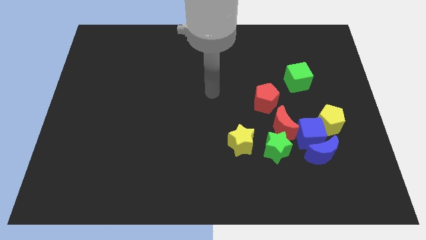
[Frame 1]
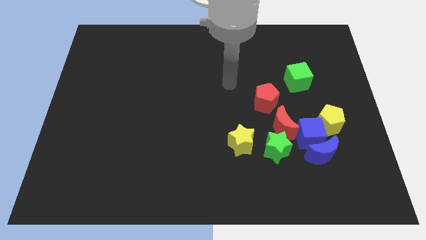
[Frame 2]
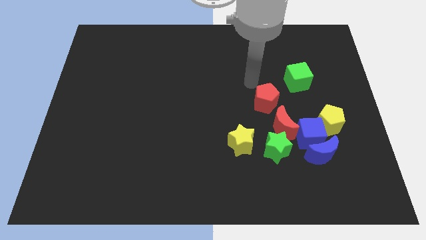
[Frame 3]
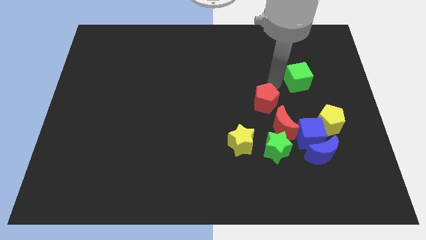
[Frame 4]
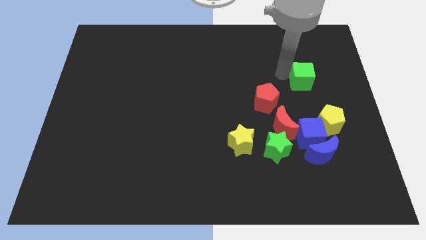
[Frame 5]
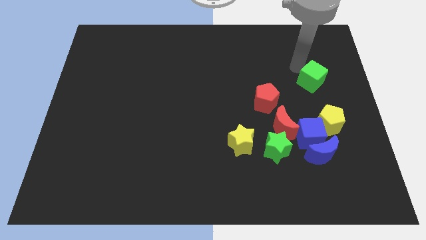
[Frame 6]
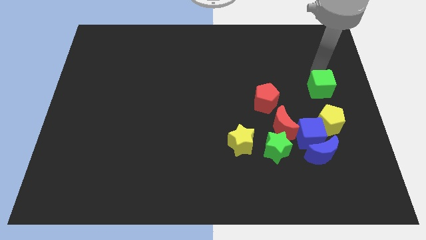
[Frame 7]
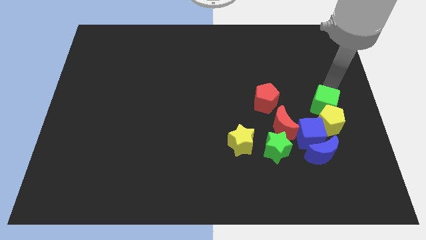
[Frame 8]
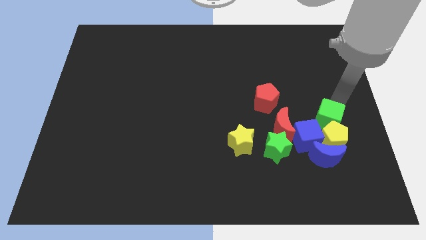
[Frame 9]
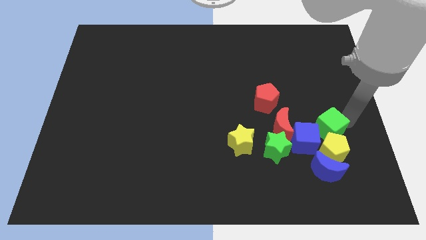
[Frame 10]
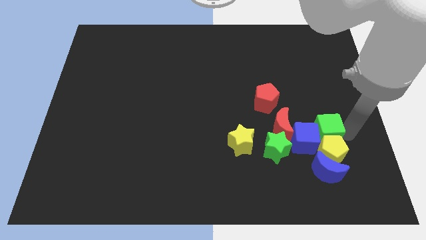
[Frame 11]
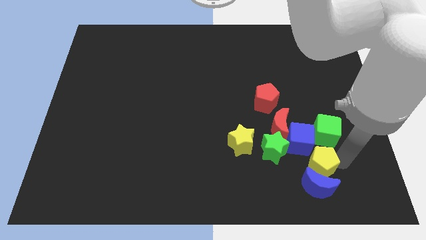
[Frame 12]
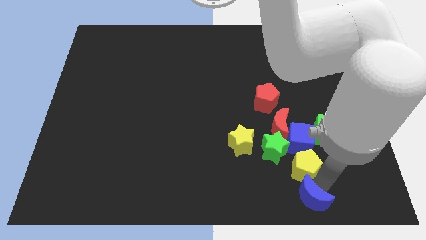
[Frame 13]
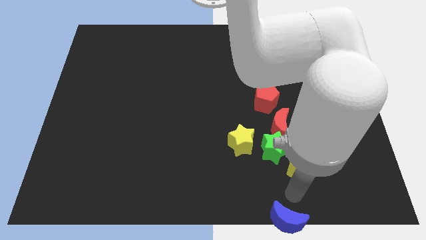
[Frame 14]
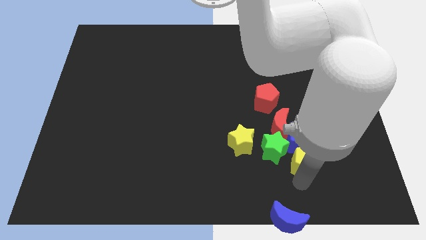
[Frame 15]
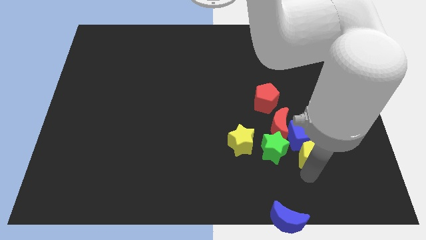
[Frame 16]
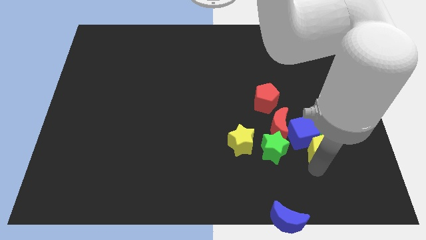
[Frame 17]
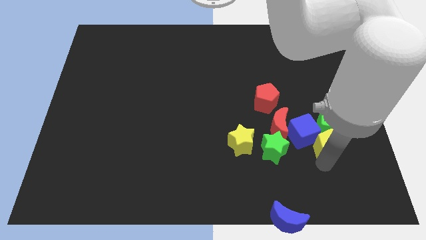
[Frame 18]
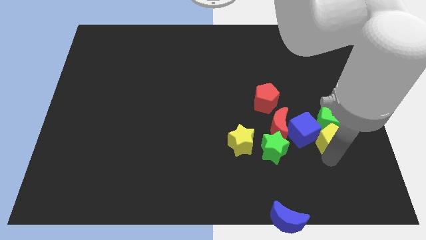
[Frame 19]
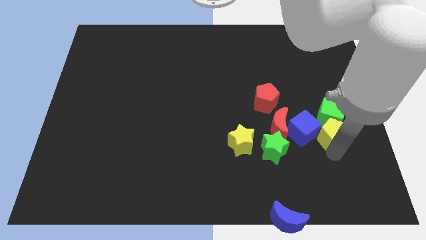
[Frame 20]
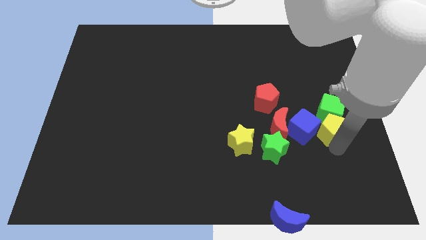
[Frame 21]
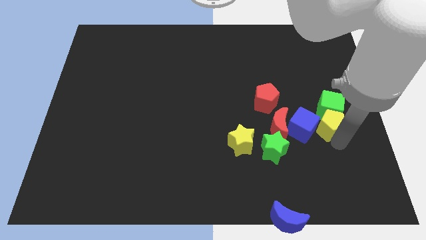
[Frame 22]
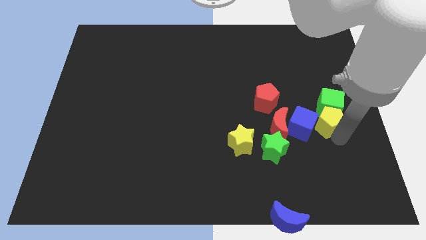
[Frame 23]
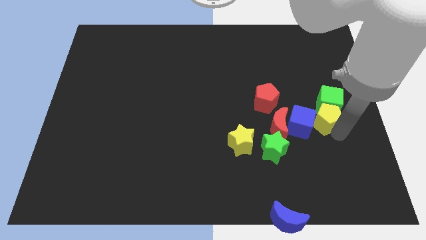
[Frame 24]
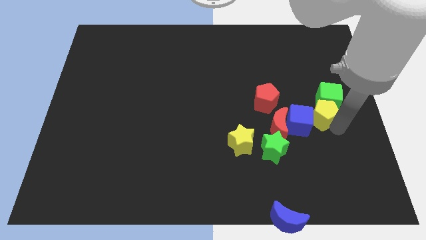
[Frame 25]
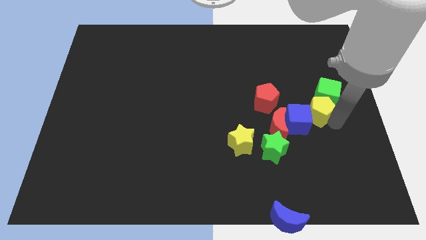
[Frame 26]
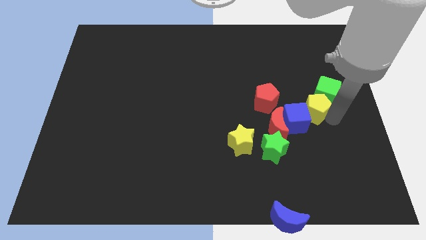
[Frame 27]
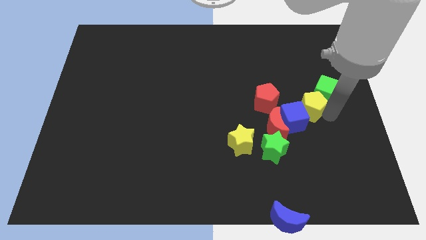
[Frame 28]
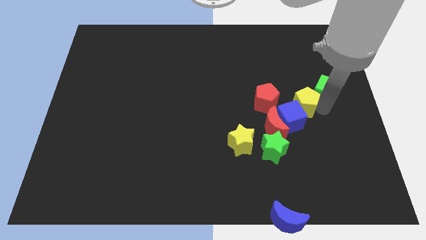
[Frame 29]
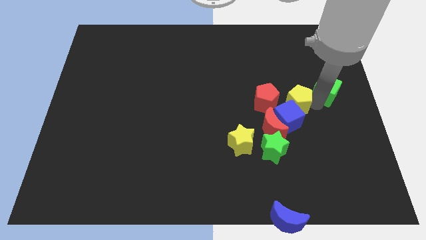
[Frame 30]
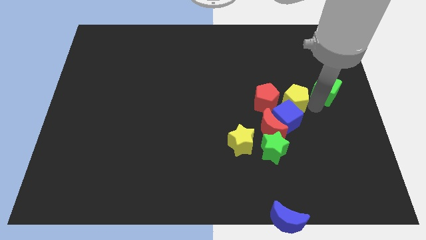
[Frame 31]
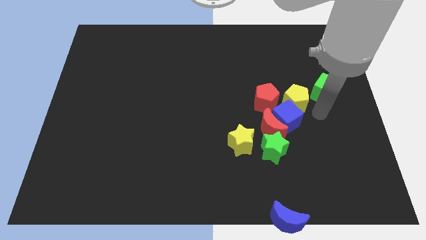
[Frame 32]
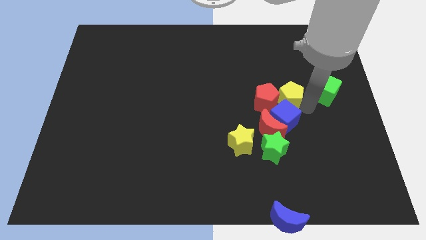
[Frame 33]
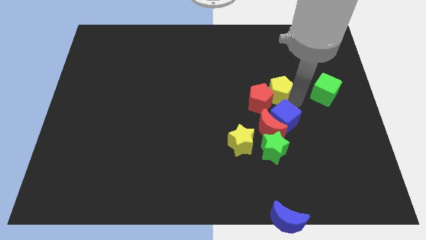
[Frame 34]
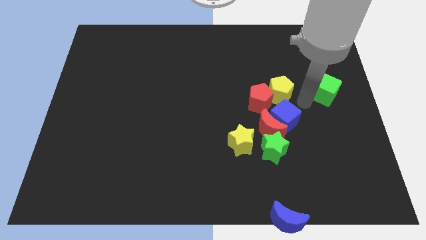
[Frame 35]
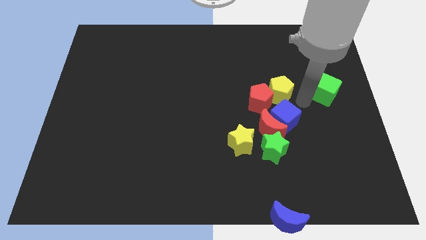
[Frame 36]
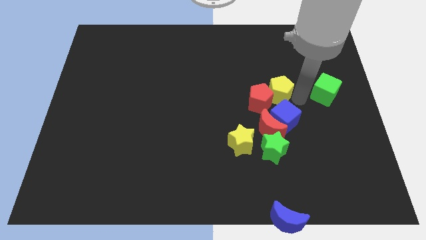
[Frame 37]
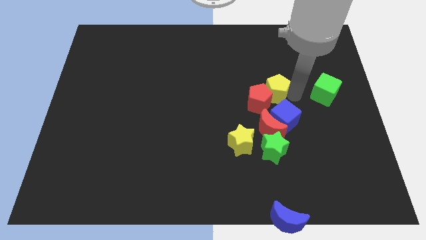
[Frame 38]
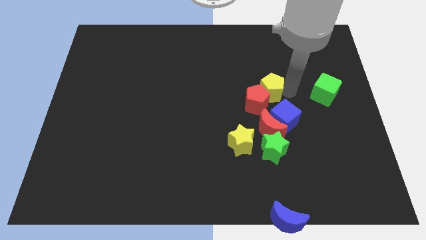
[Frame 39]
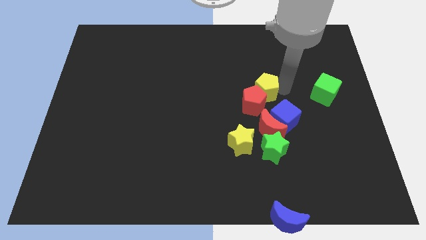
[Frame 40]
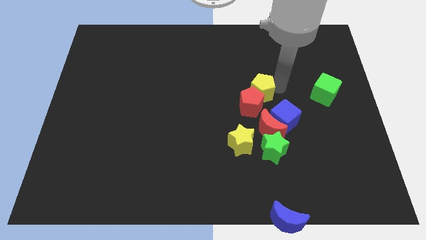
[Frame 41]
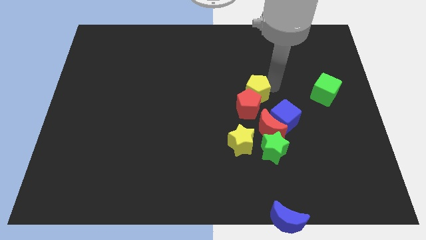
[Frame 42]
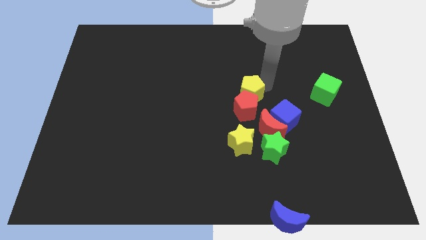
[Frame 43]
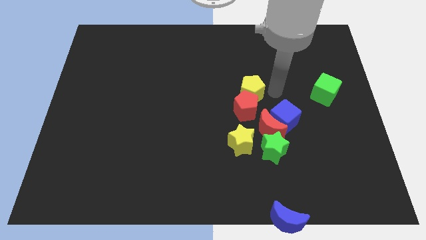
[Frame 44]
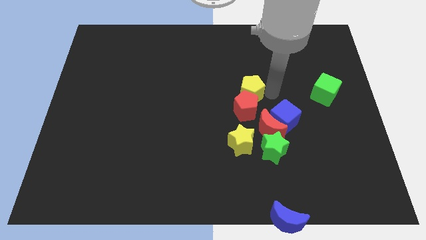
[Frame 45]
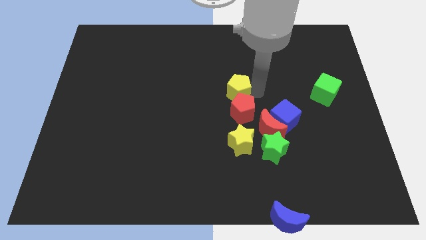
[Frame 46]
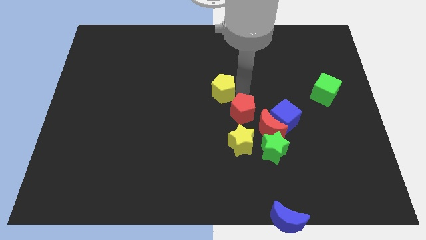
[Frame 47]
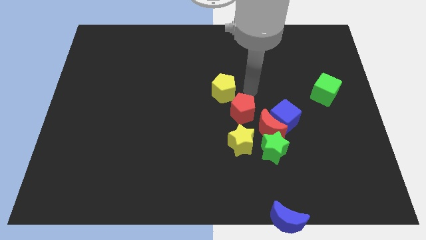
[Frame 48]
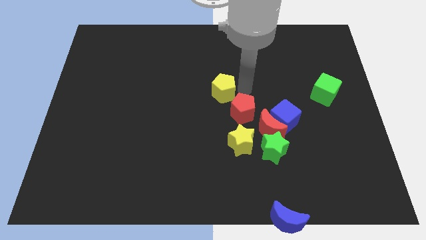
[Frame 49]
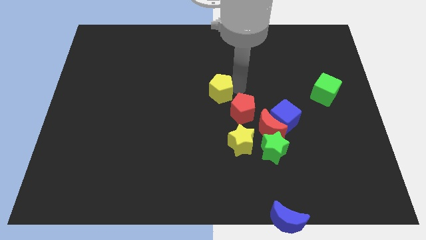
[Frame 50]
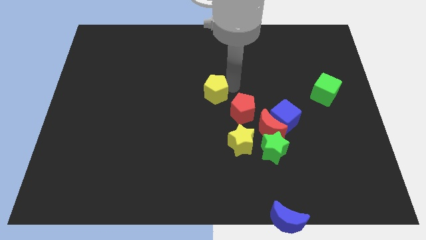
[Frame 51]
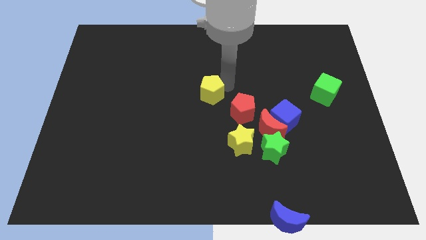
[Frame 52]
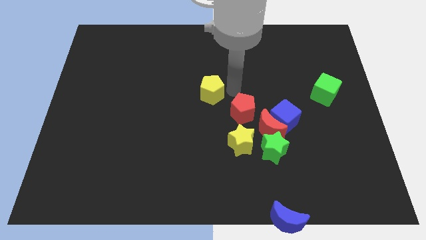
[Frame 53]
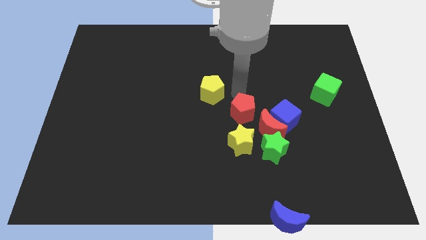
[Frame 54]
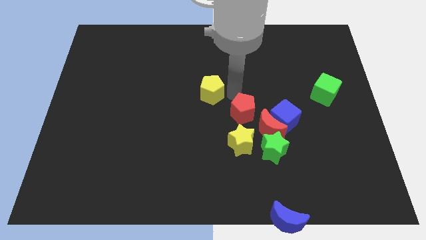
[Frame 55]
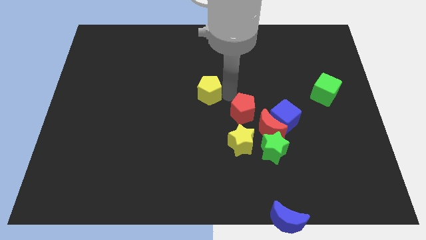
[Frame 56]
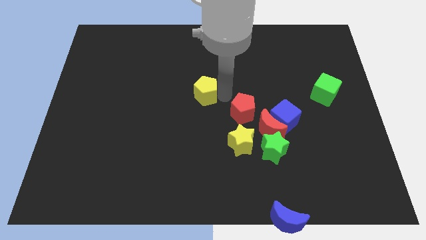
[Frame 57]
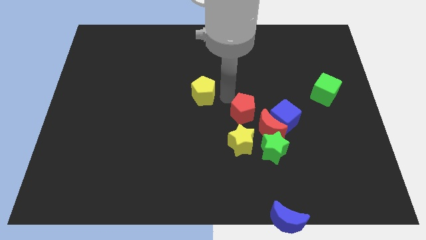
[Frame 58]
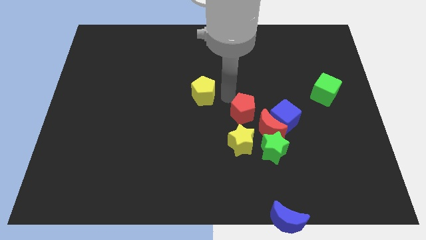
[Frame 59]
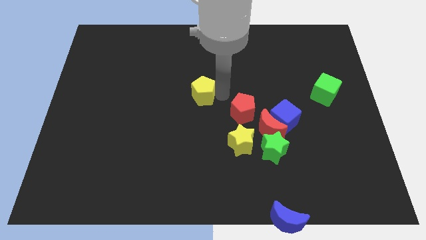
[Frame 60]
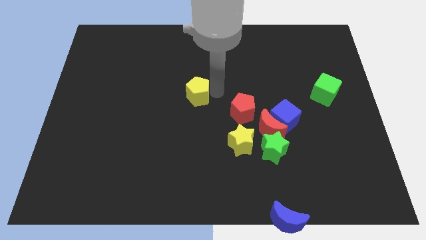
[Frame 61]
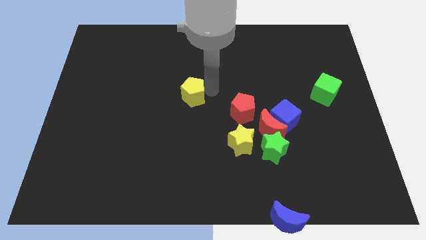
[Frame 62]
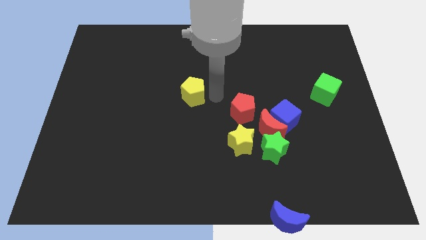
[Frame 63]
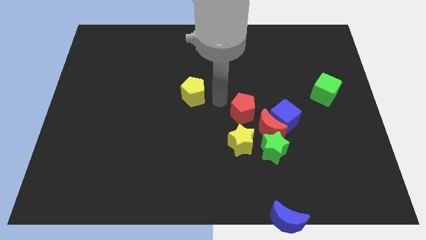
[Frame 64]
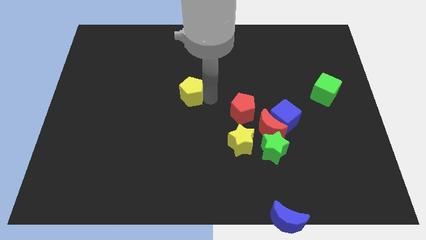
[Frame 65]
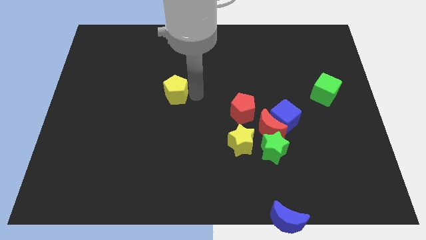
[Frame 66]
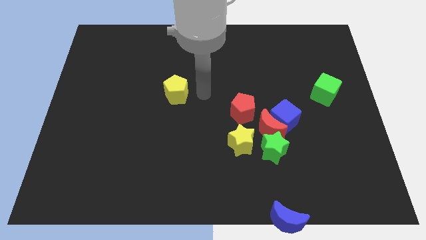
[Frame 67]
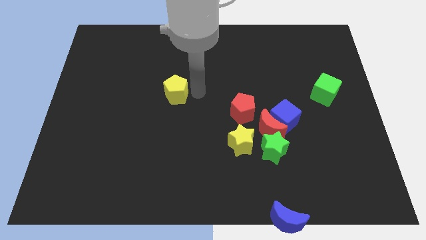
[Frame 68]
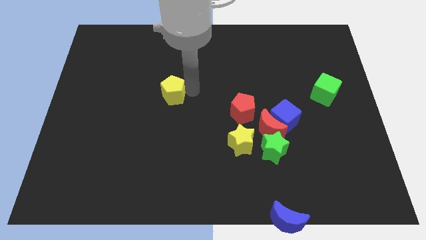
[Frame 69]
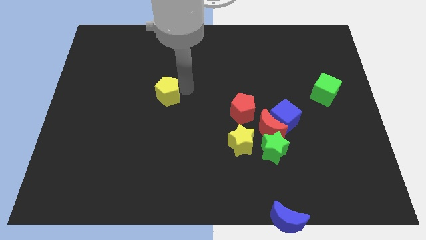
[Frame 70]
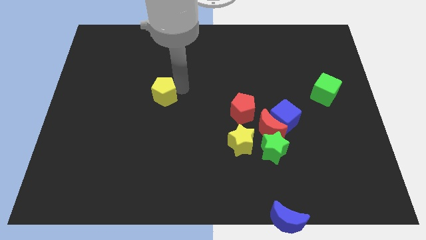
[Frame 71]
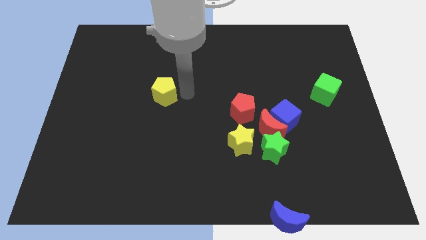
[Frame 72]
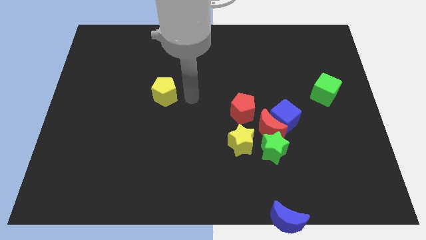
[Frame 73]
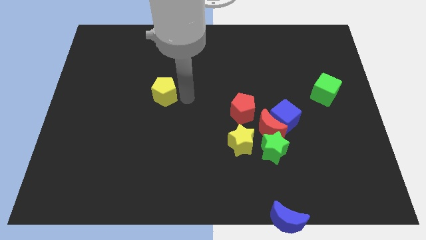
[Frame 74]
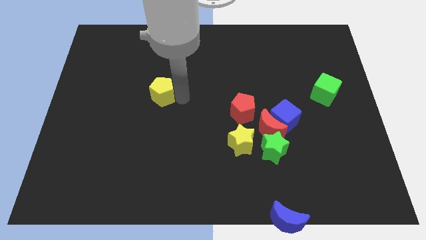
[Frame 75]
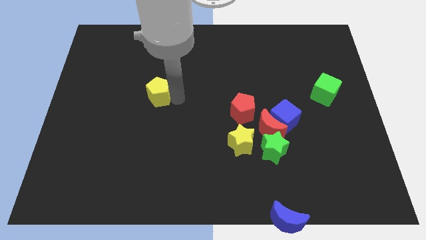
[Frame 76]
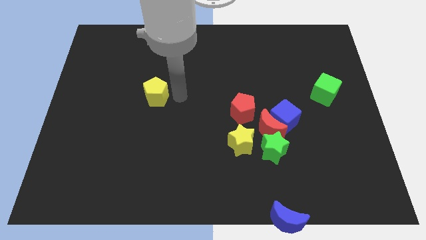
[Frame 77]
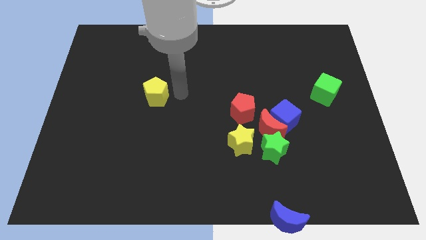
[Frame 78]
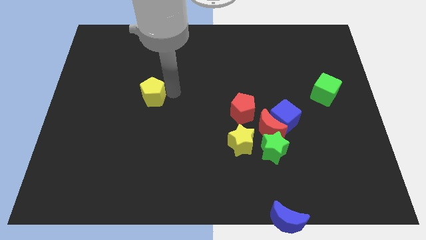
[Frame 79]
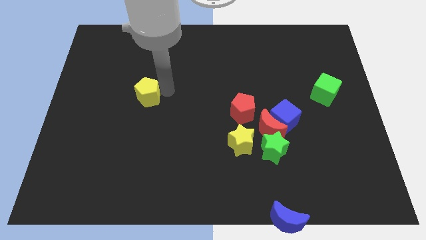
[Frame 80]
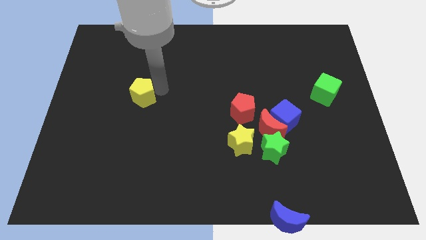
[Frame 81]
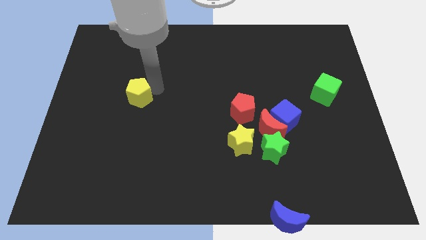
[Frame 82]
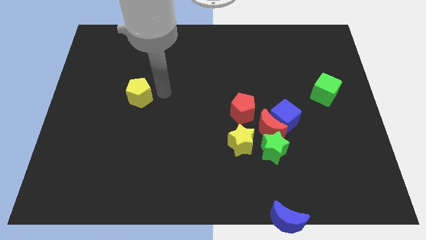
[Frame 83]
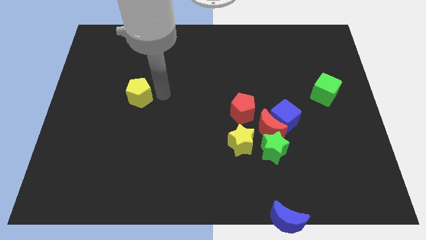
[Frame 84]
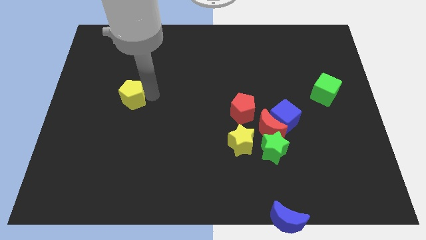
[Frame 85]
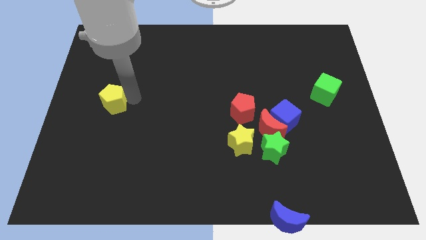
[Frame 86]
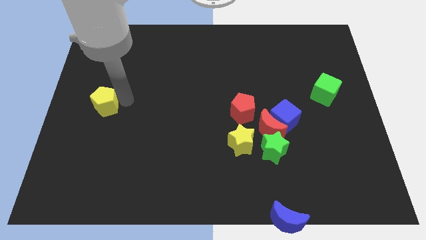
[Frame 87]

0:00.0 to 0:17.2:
slide the yellow pentagon to the left side
